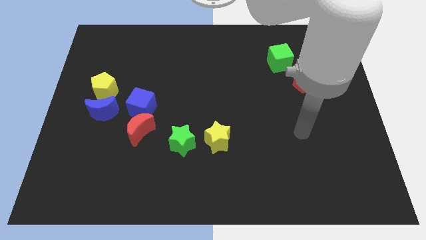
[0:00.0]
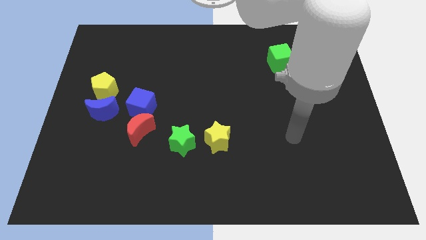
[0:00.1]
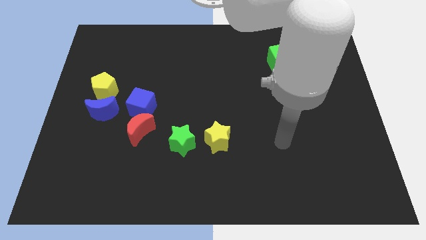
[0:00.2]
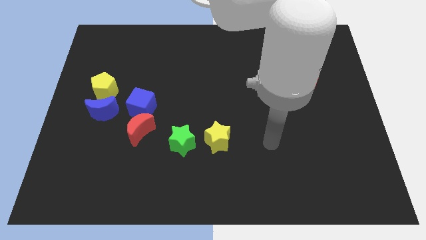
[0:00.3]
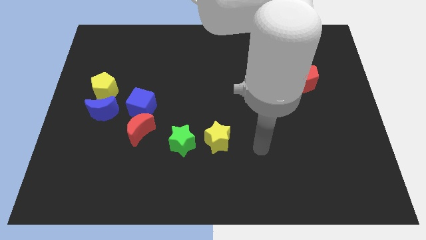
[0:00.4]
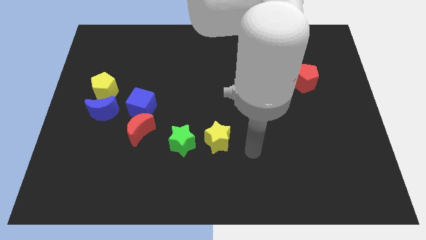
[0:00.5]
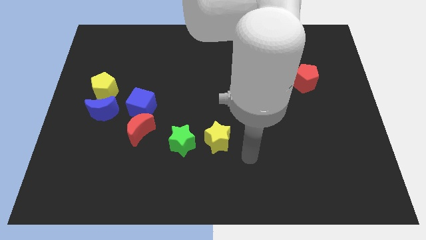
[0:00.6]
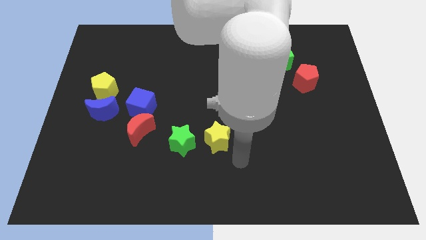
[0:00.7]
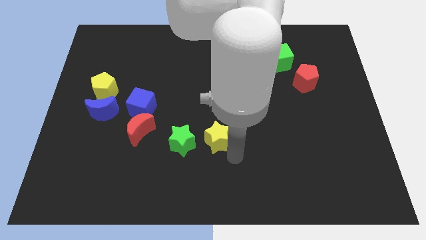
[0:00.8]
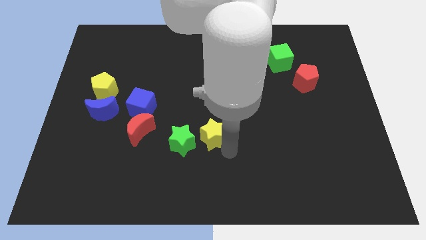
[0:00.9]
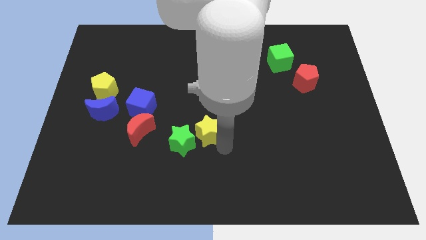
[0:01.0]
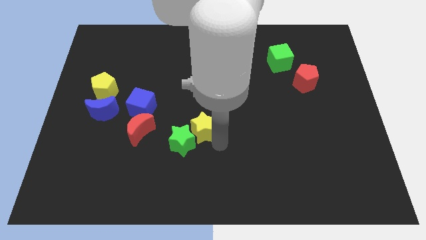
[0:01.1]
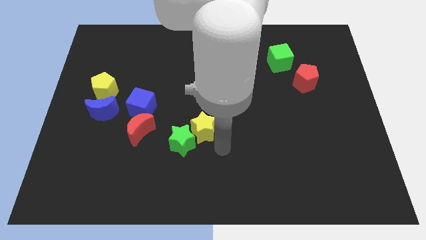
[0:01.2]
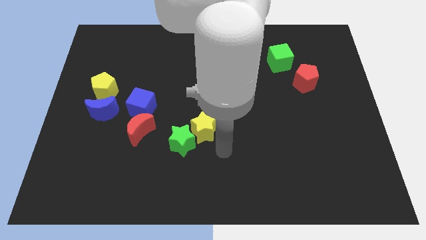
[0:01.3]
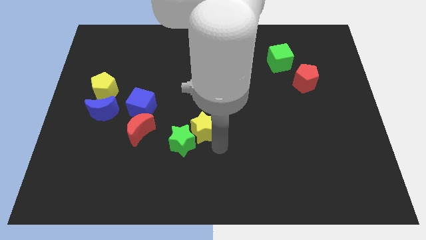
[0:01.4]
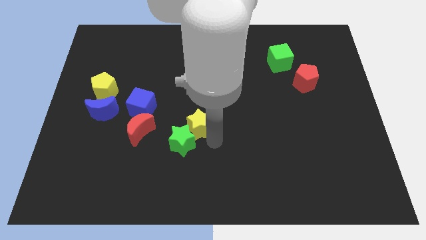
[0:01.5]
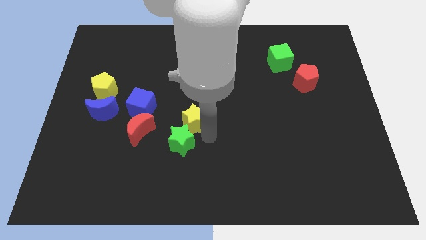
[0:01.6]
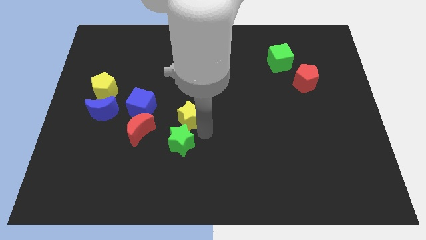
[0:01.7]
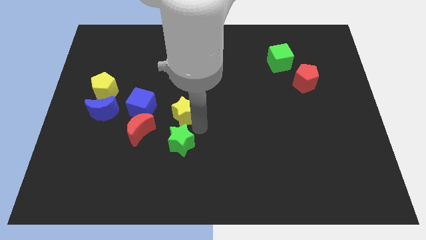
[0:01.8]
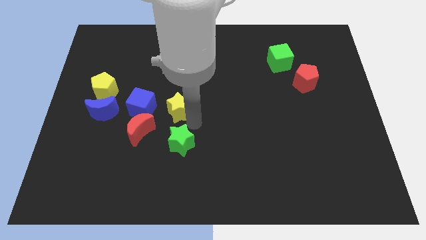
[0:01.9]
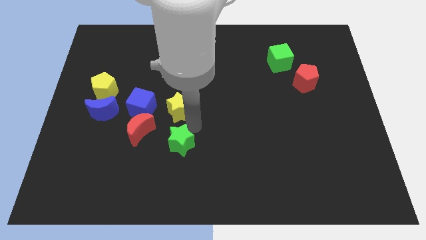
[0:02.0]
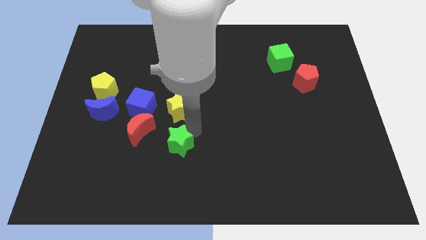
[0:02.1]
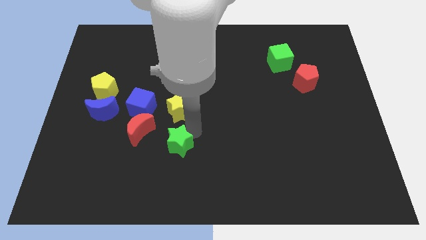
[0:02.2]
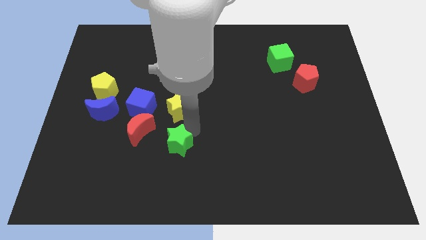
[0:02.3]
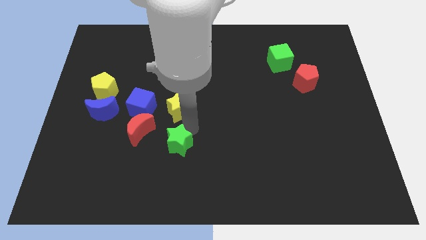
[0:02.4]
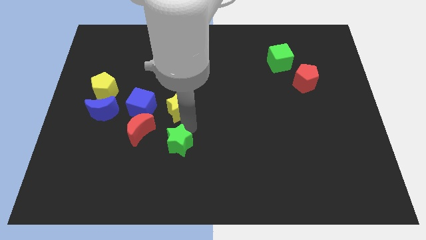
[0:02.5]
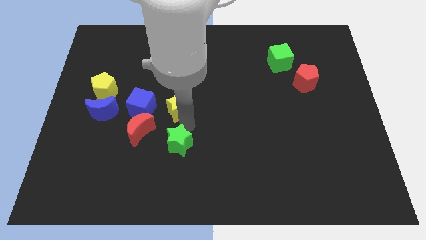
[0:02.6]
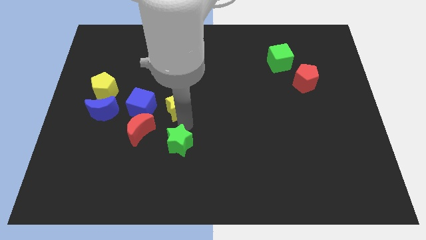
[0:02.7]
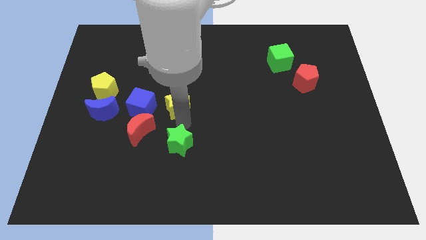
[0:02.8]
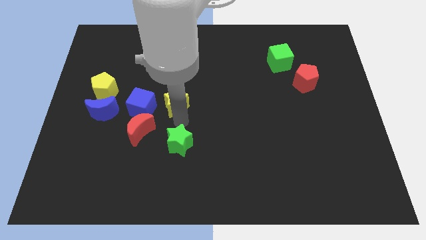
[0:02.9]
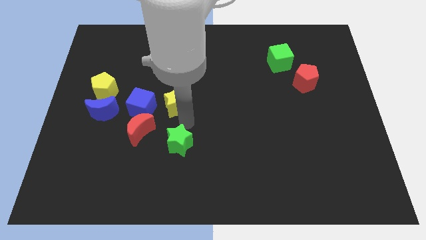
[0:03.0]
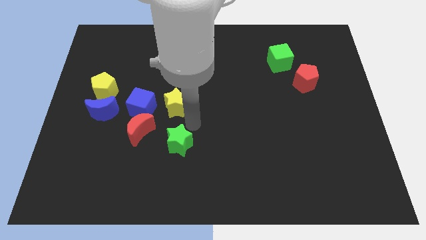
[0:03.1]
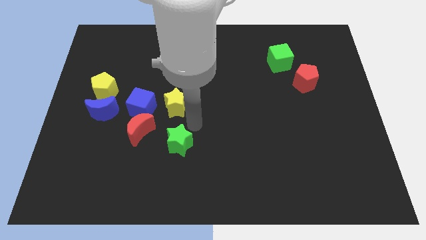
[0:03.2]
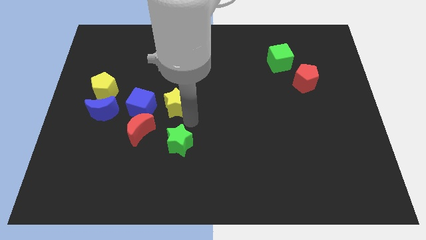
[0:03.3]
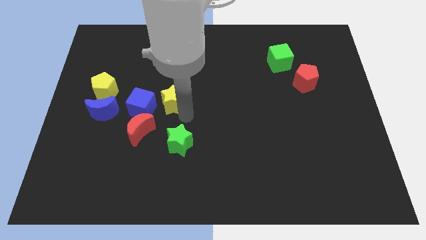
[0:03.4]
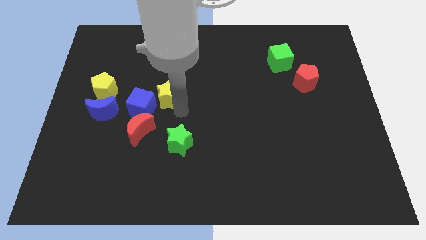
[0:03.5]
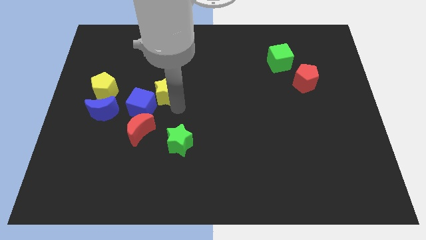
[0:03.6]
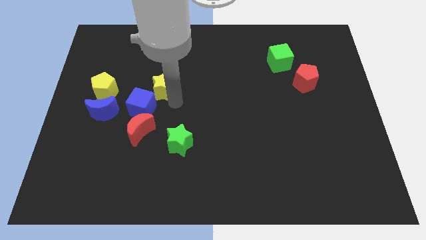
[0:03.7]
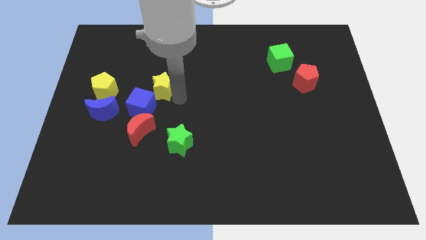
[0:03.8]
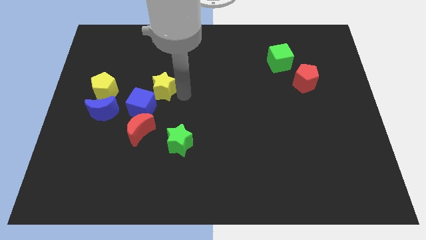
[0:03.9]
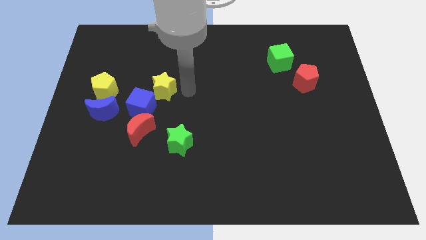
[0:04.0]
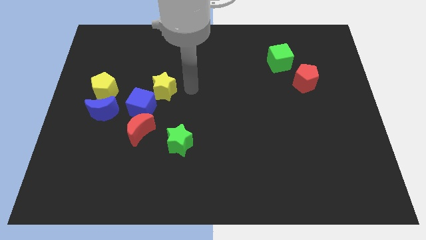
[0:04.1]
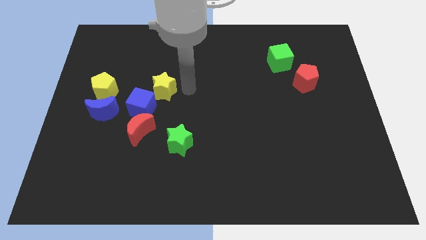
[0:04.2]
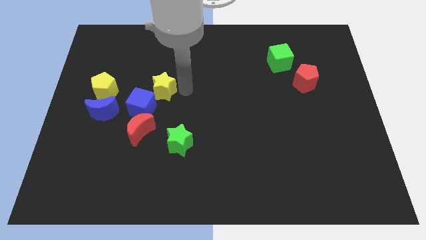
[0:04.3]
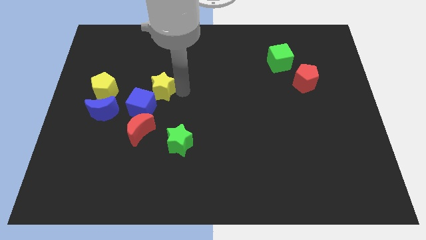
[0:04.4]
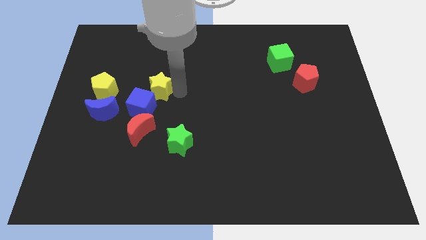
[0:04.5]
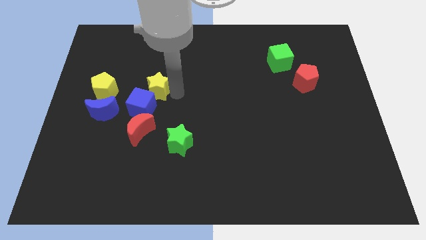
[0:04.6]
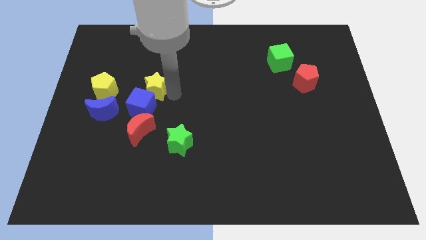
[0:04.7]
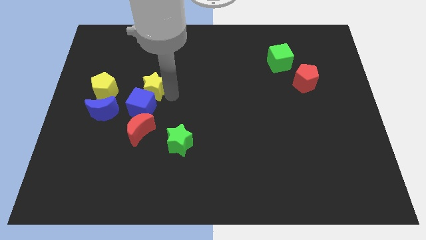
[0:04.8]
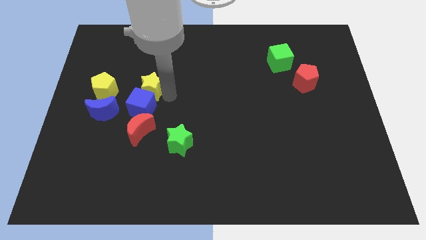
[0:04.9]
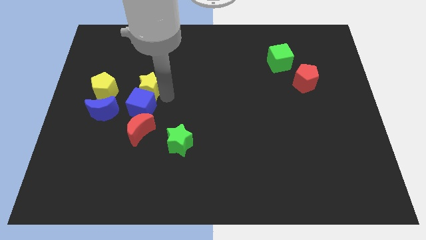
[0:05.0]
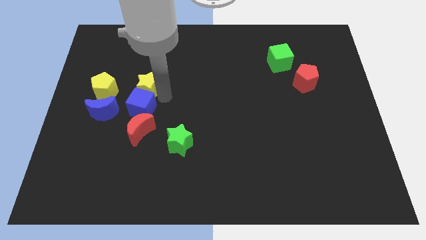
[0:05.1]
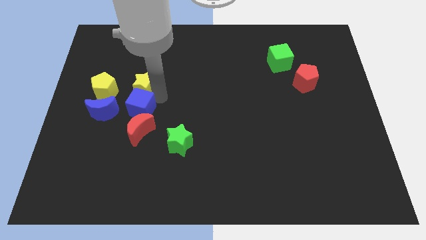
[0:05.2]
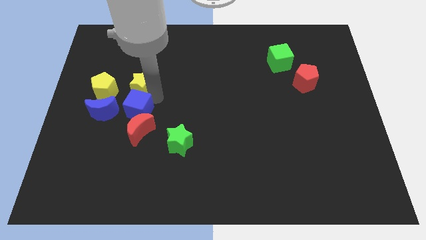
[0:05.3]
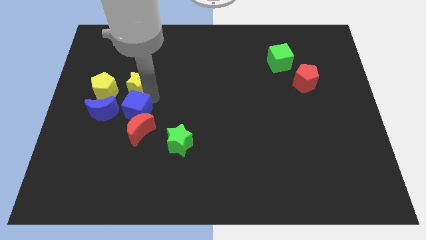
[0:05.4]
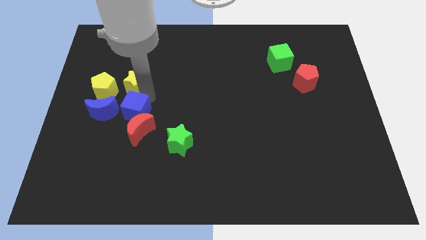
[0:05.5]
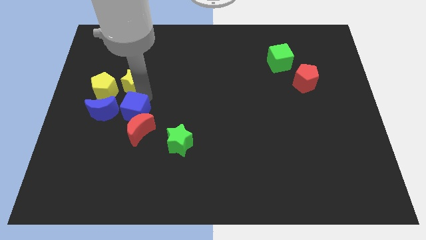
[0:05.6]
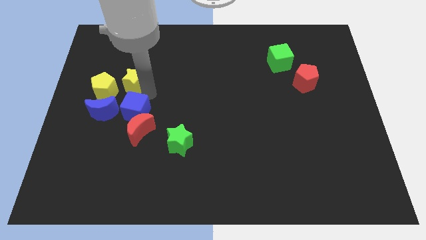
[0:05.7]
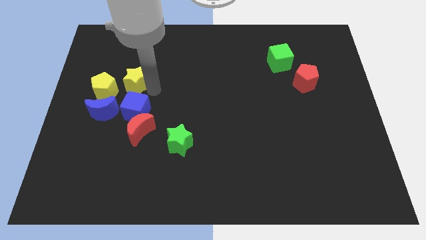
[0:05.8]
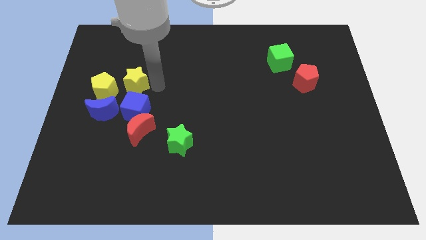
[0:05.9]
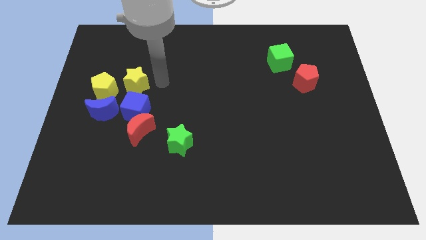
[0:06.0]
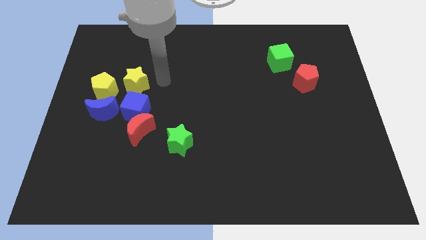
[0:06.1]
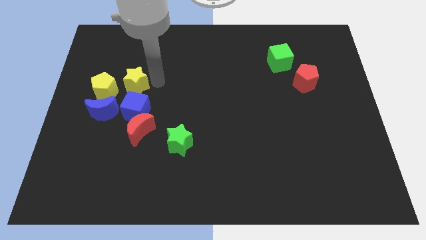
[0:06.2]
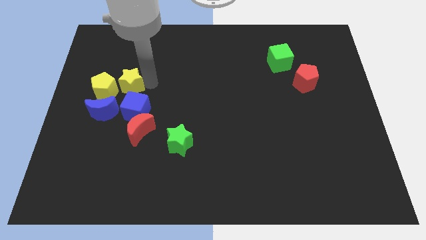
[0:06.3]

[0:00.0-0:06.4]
slide the yellow star to the yellow pentagon

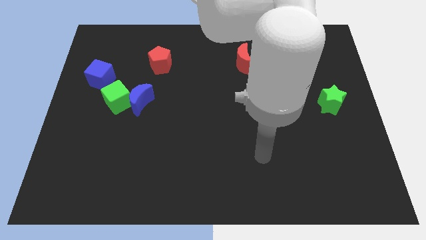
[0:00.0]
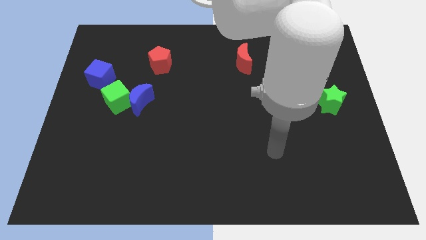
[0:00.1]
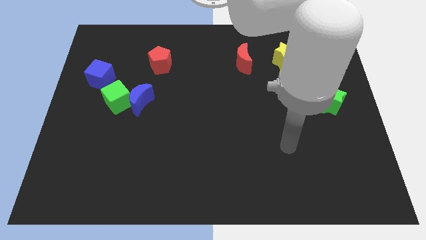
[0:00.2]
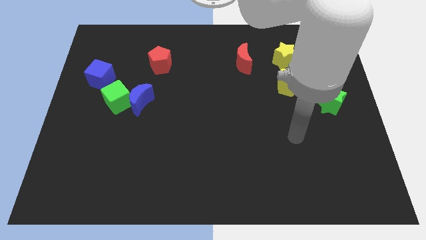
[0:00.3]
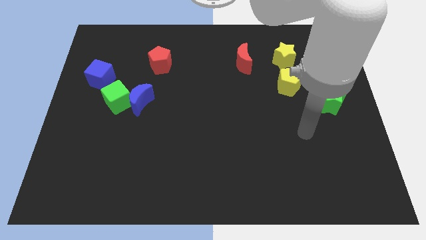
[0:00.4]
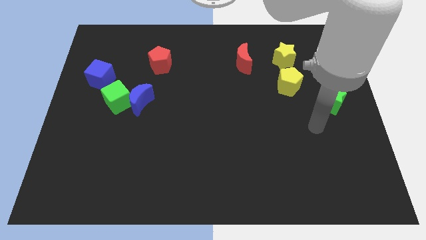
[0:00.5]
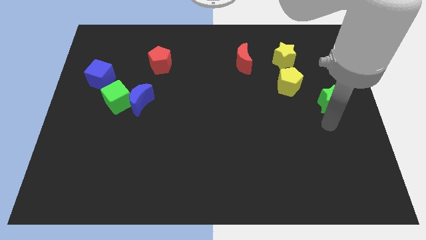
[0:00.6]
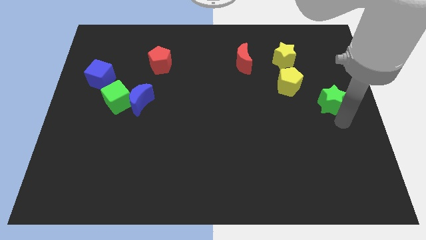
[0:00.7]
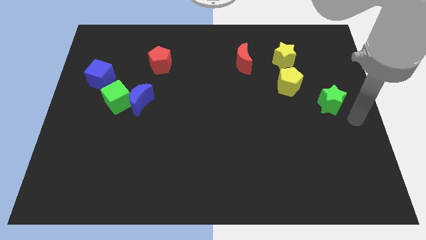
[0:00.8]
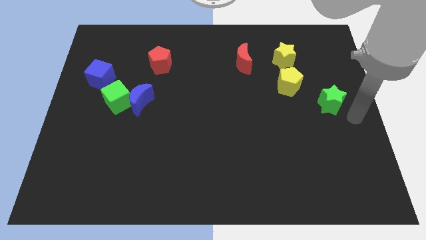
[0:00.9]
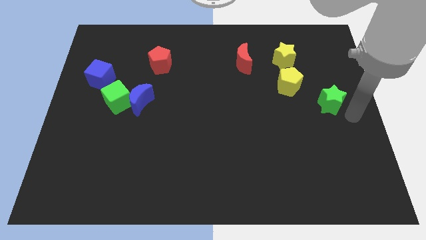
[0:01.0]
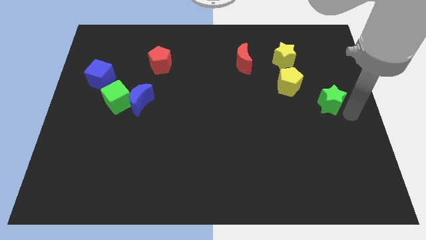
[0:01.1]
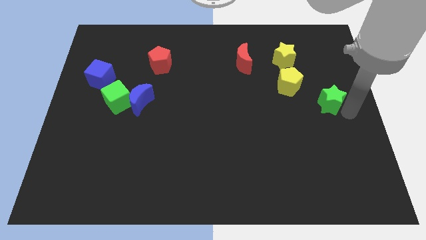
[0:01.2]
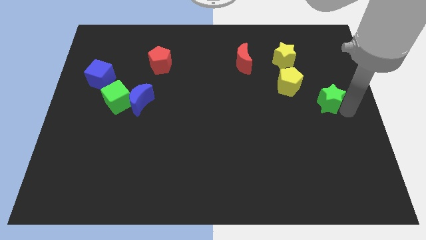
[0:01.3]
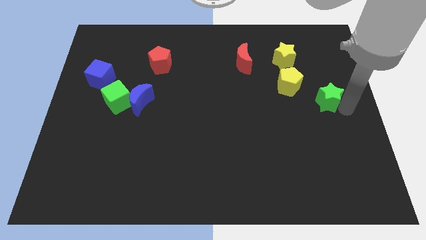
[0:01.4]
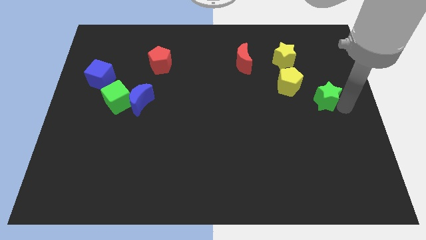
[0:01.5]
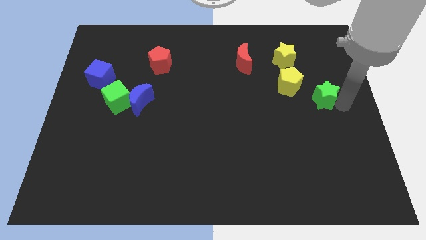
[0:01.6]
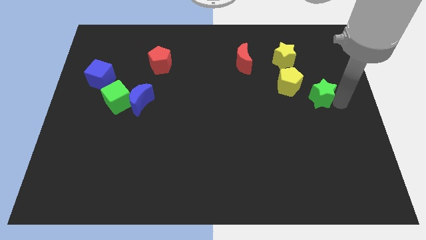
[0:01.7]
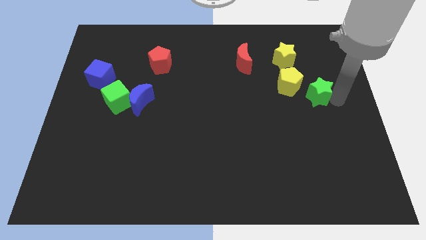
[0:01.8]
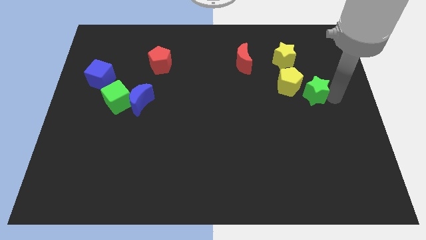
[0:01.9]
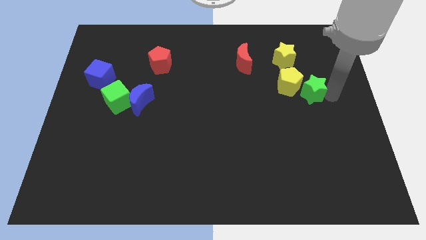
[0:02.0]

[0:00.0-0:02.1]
put the green star to the yellow pentagon
